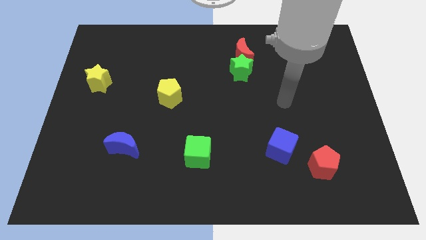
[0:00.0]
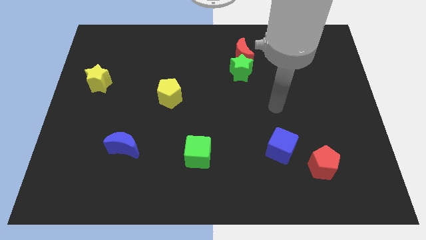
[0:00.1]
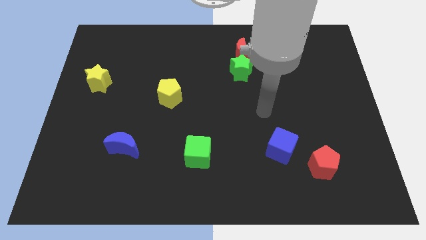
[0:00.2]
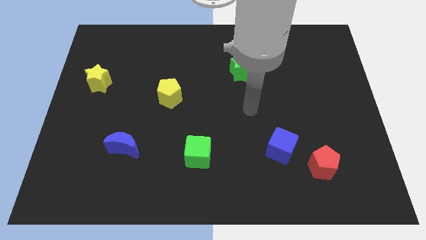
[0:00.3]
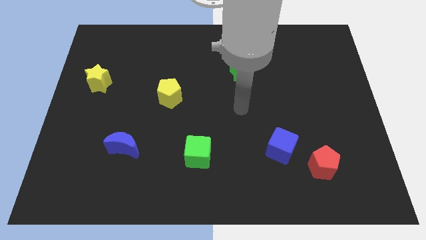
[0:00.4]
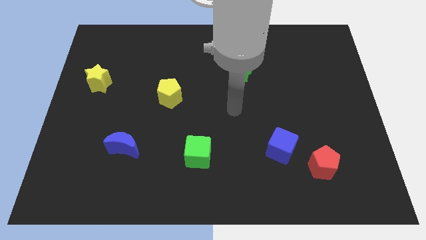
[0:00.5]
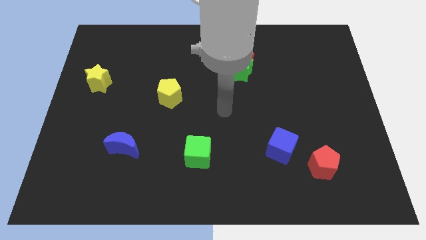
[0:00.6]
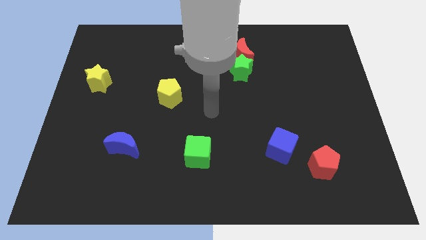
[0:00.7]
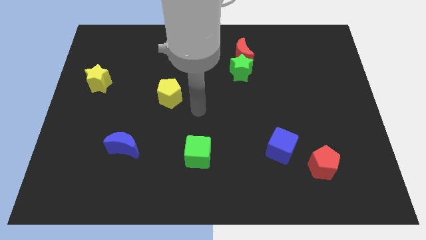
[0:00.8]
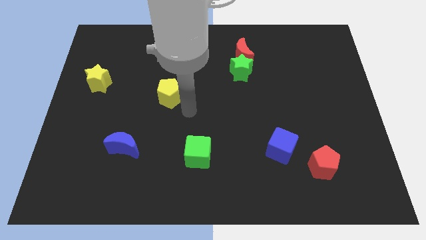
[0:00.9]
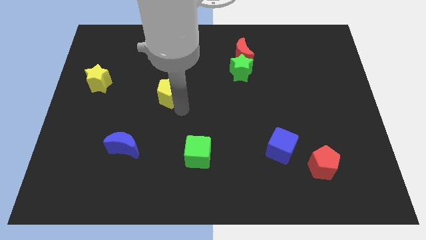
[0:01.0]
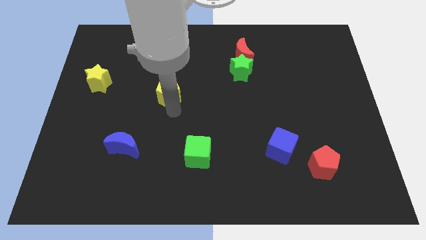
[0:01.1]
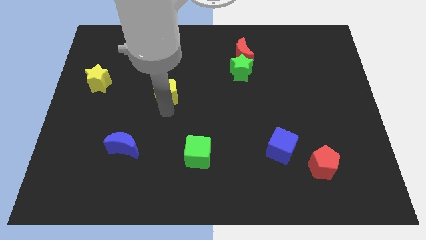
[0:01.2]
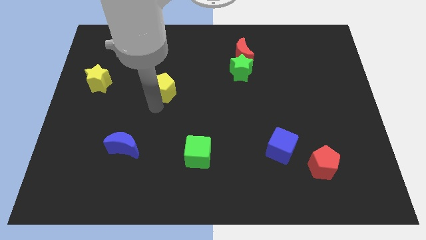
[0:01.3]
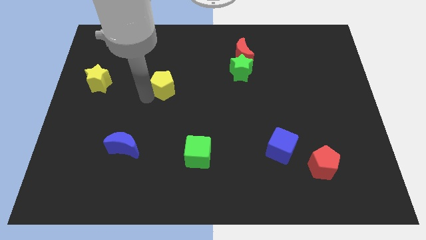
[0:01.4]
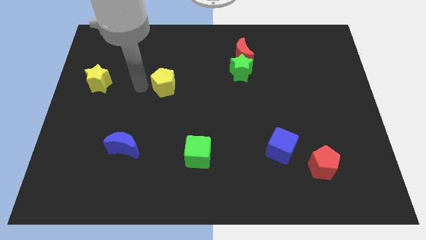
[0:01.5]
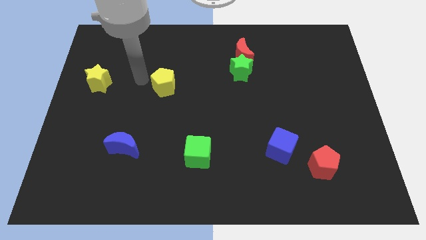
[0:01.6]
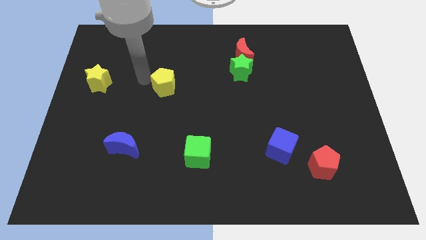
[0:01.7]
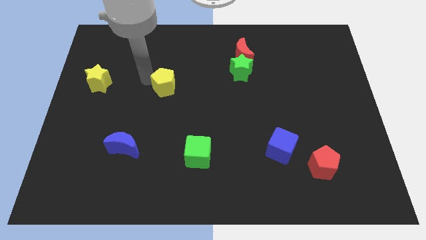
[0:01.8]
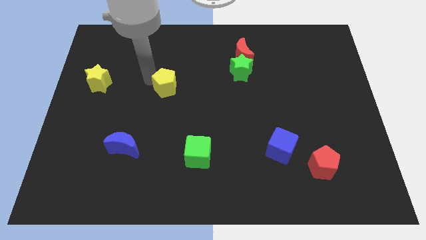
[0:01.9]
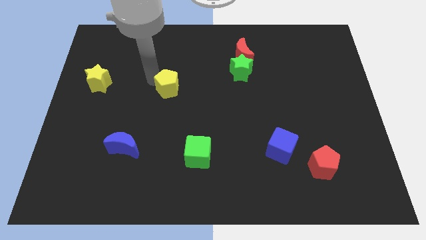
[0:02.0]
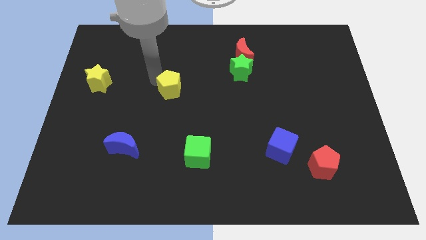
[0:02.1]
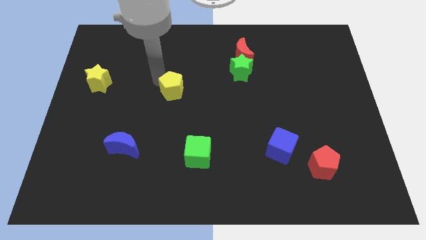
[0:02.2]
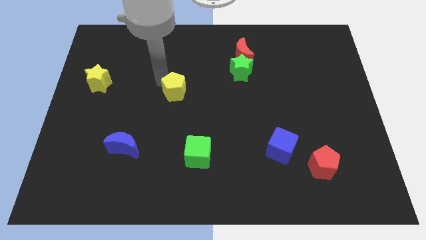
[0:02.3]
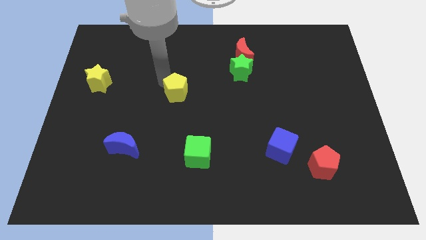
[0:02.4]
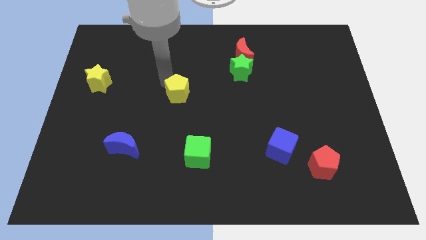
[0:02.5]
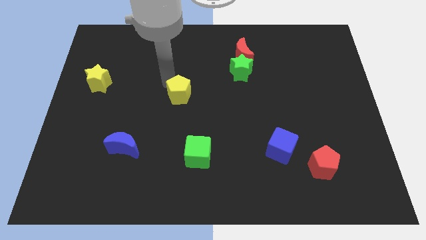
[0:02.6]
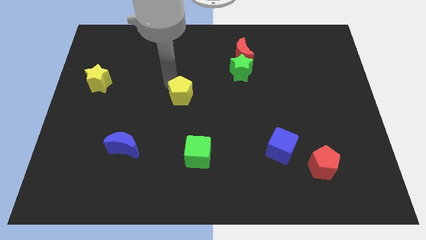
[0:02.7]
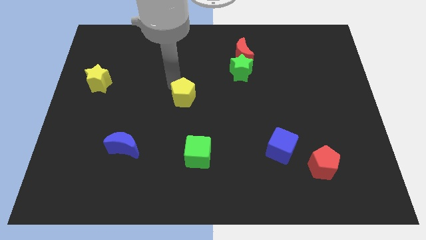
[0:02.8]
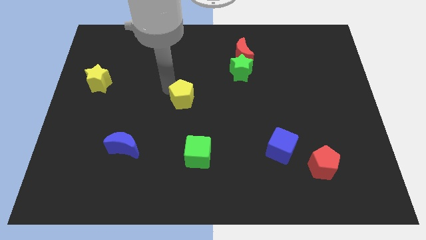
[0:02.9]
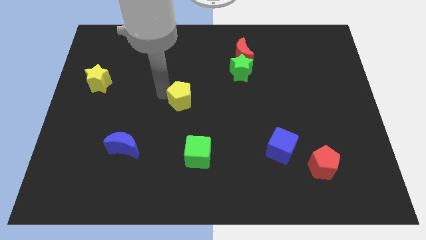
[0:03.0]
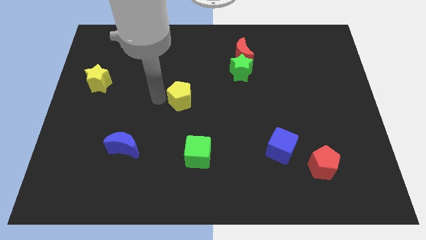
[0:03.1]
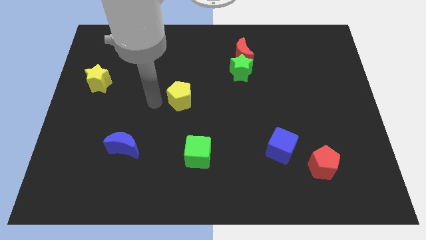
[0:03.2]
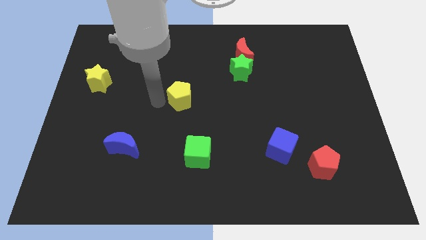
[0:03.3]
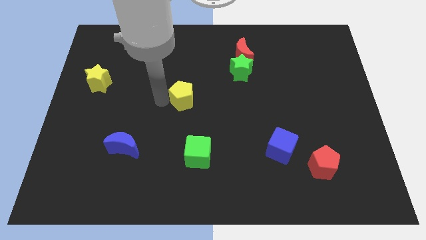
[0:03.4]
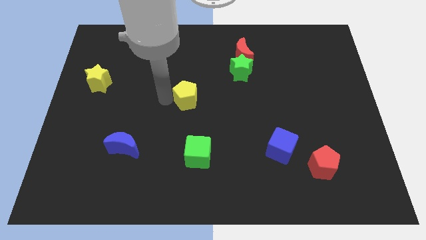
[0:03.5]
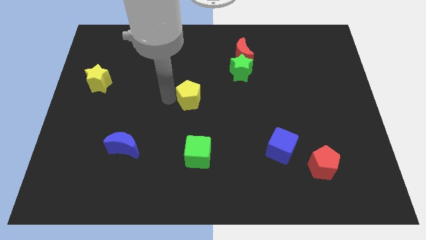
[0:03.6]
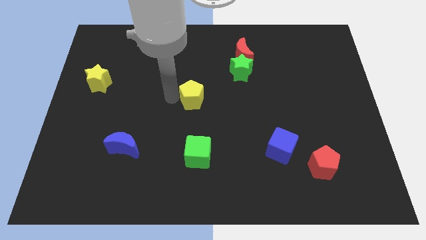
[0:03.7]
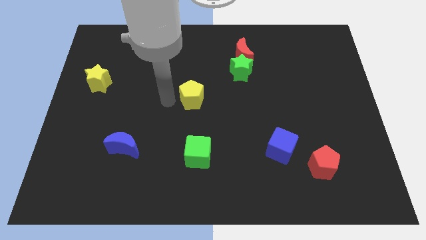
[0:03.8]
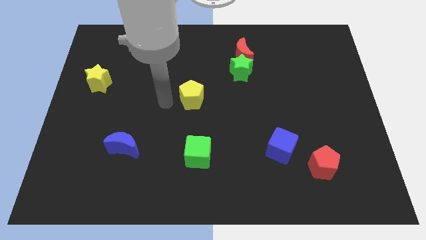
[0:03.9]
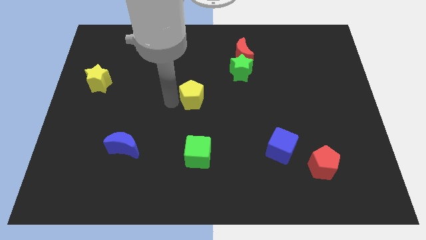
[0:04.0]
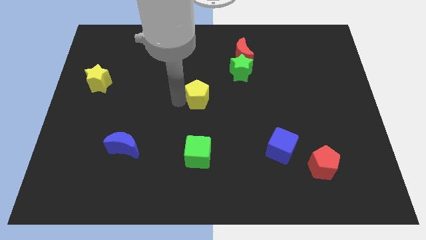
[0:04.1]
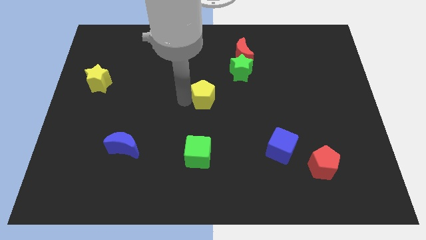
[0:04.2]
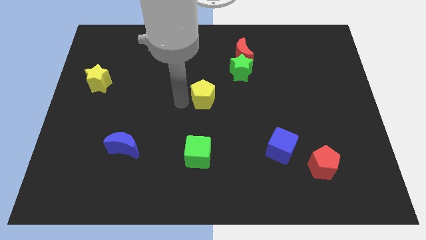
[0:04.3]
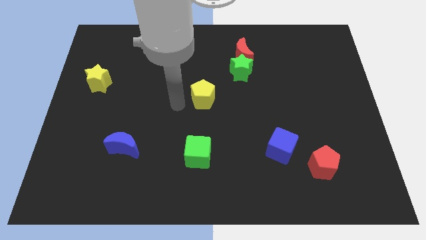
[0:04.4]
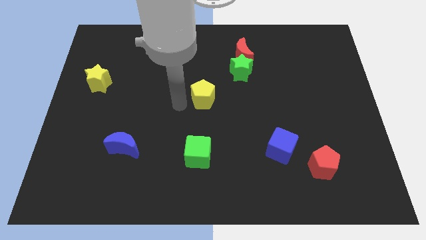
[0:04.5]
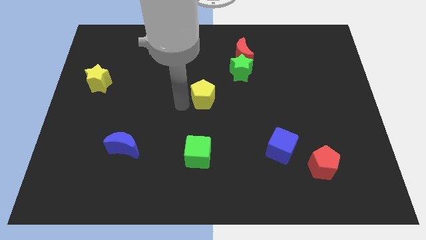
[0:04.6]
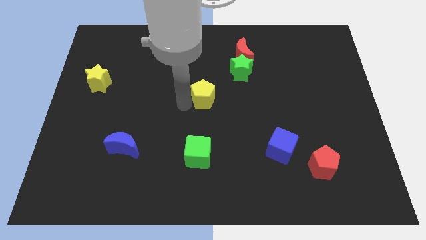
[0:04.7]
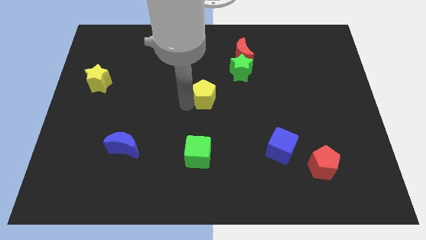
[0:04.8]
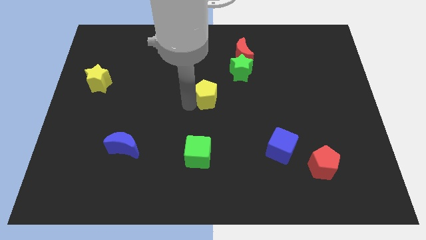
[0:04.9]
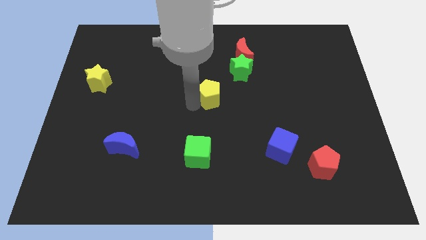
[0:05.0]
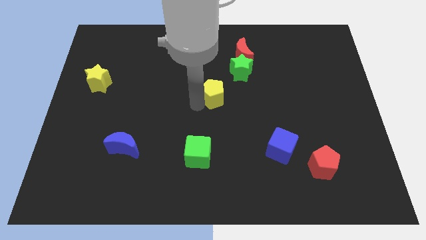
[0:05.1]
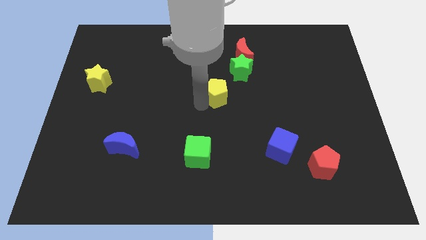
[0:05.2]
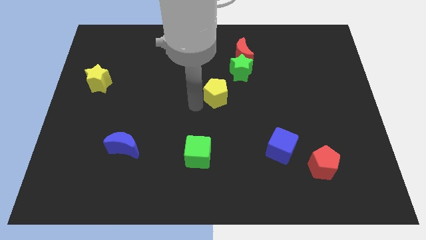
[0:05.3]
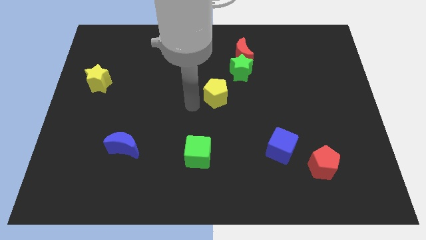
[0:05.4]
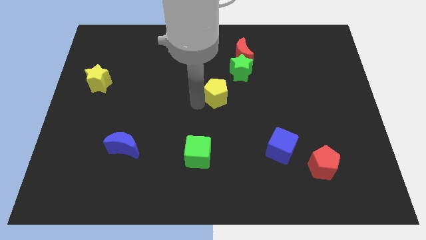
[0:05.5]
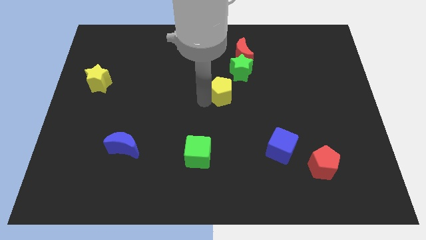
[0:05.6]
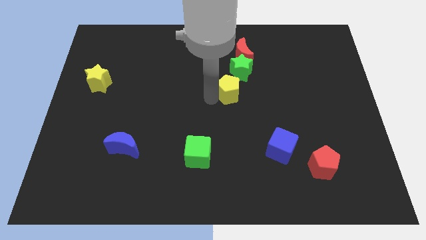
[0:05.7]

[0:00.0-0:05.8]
move the yellow pentagon to the bottom of the red moon

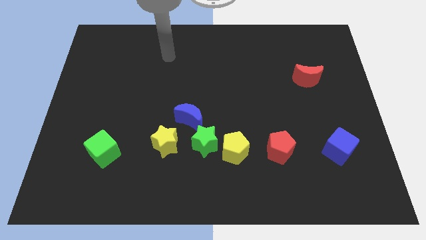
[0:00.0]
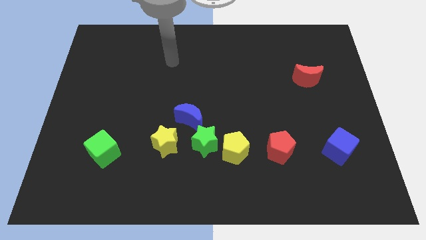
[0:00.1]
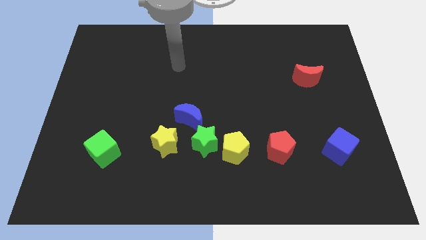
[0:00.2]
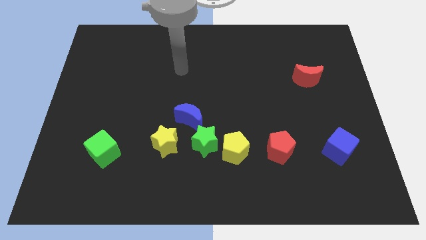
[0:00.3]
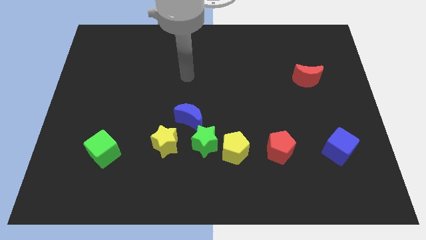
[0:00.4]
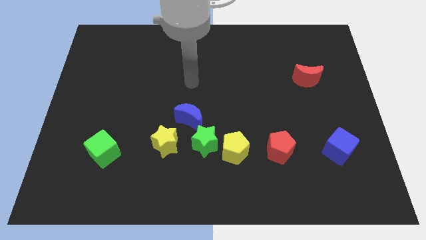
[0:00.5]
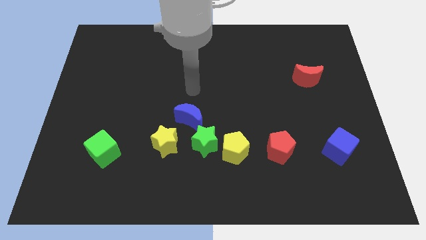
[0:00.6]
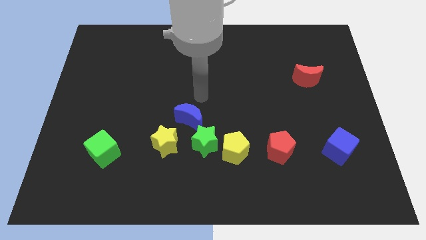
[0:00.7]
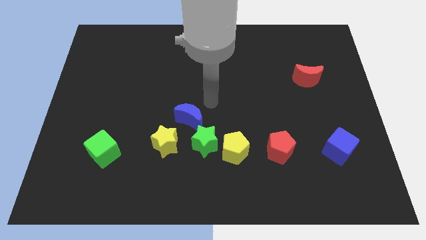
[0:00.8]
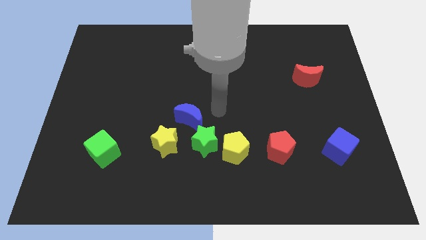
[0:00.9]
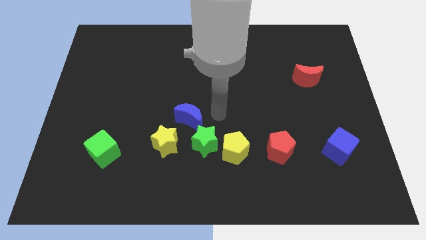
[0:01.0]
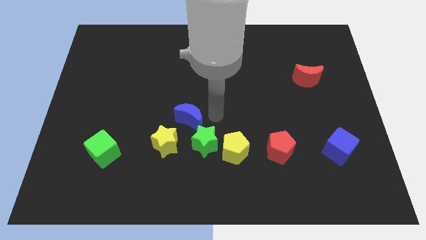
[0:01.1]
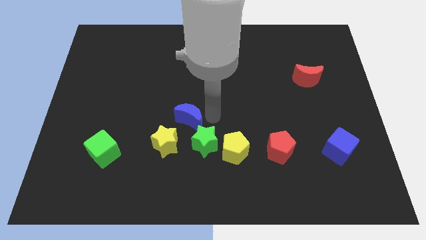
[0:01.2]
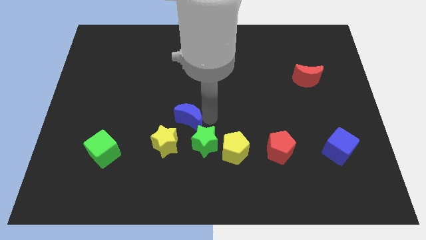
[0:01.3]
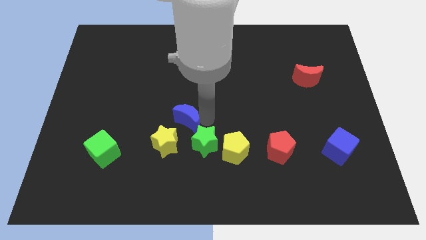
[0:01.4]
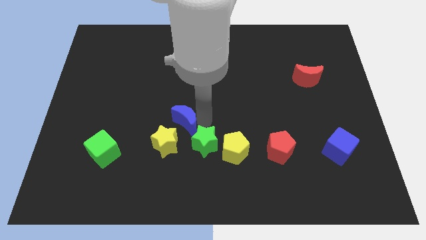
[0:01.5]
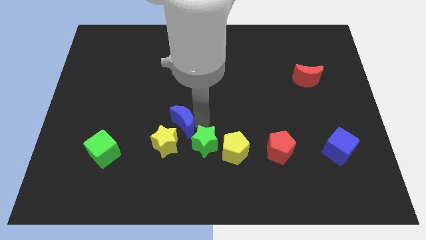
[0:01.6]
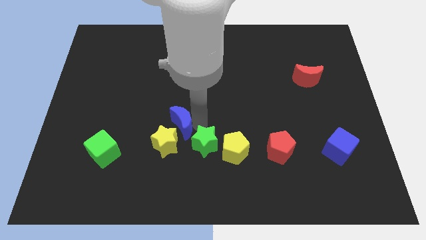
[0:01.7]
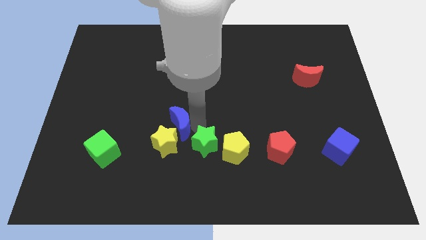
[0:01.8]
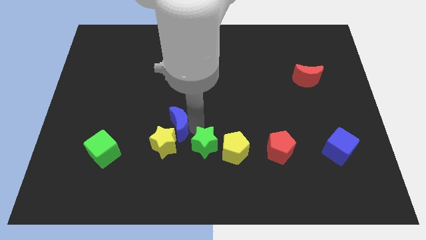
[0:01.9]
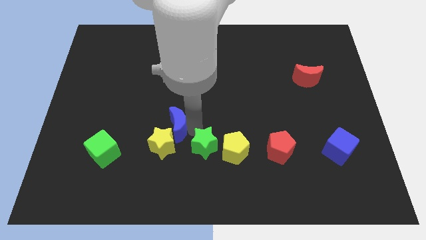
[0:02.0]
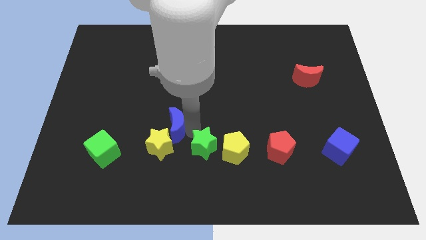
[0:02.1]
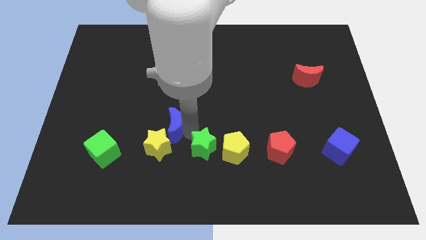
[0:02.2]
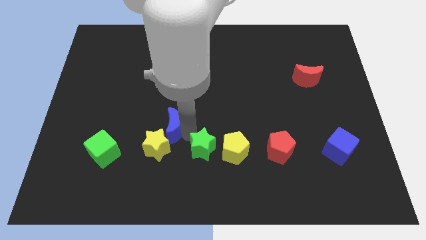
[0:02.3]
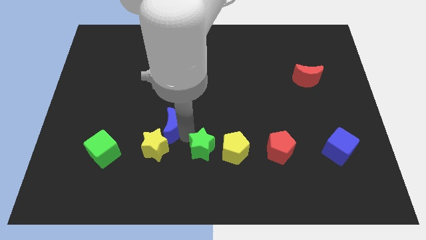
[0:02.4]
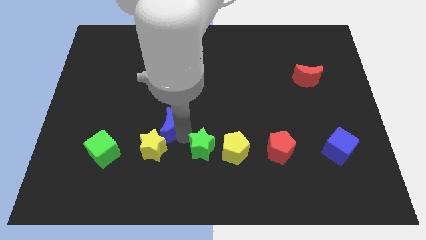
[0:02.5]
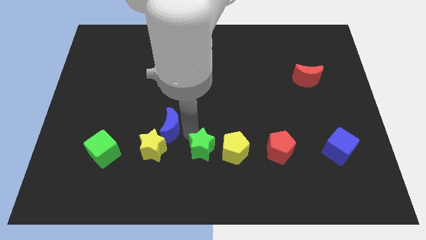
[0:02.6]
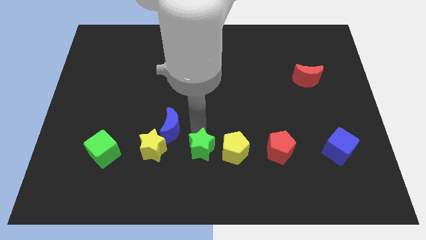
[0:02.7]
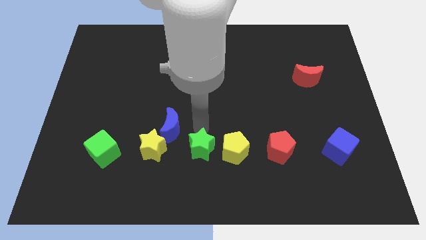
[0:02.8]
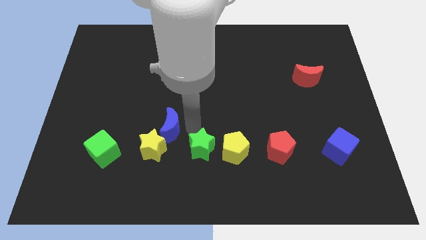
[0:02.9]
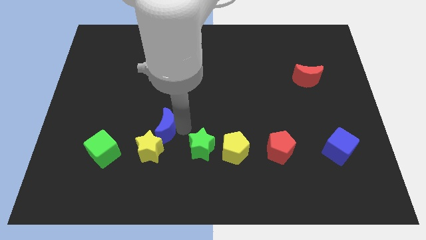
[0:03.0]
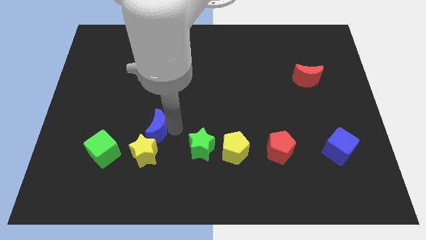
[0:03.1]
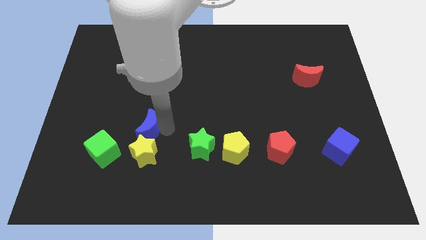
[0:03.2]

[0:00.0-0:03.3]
put the blue moon diagonally up and to the left of the yellow star
